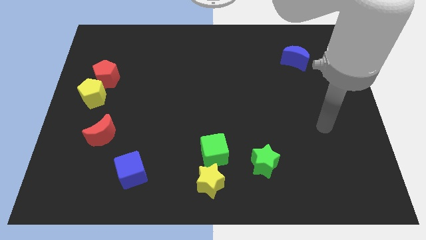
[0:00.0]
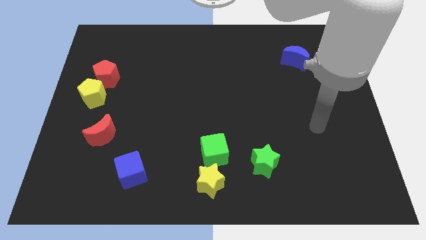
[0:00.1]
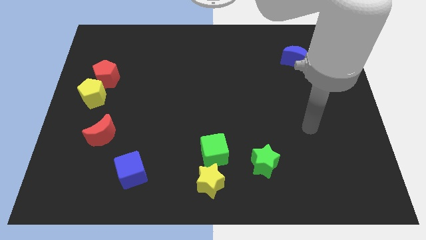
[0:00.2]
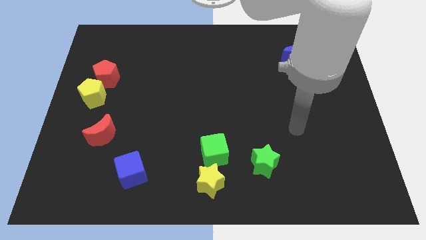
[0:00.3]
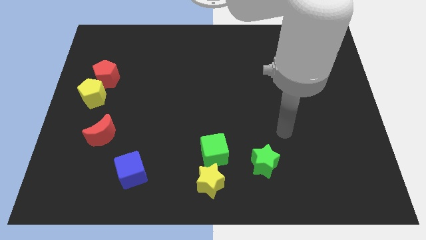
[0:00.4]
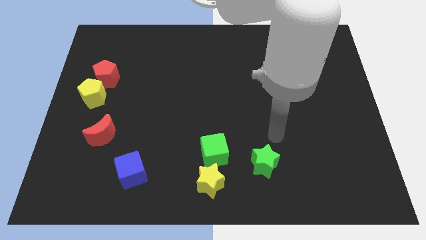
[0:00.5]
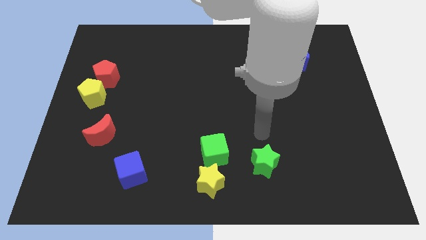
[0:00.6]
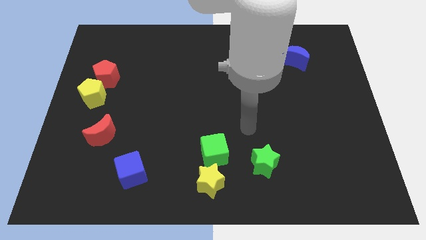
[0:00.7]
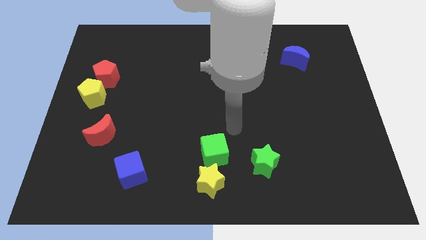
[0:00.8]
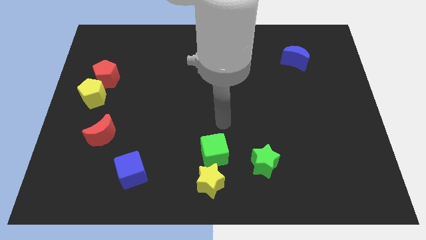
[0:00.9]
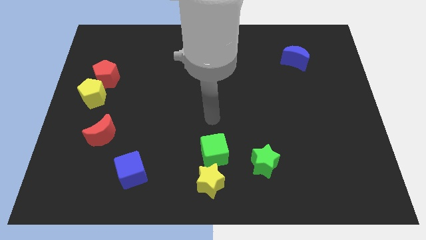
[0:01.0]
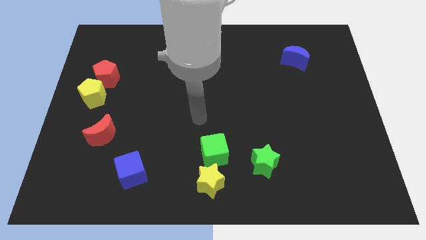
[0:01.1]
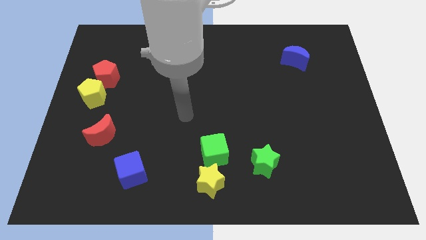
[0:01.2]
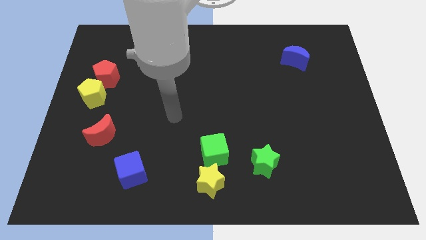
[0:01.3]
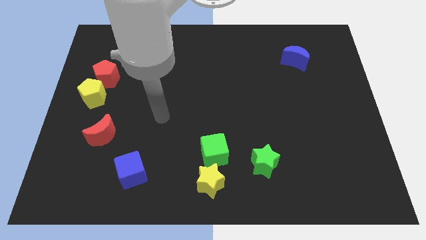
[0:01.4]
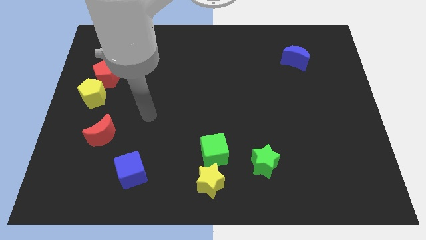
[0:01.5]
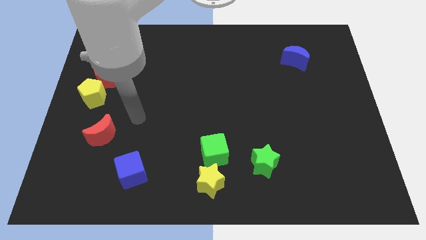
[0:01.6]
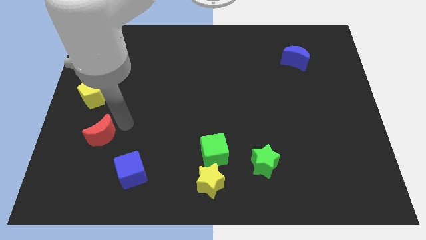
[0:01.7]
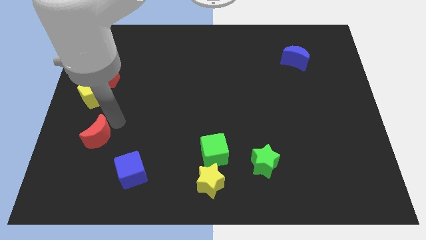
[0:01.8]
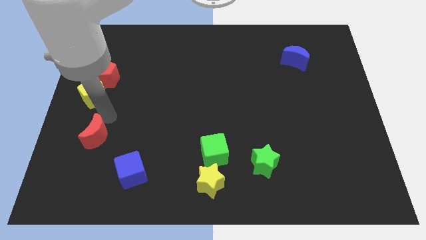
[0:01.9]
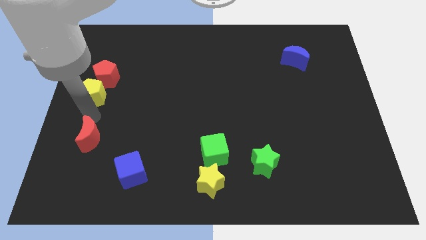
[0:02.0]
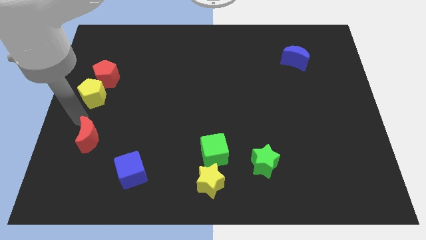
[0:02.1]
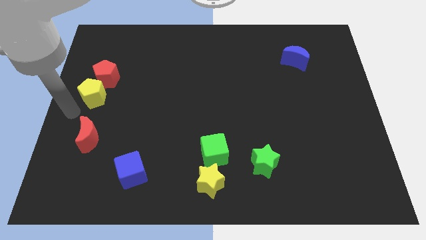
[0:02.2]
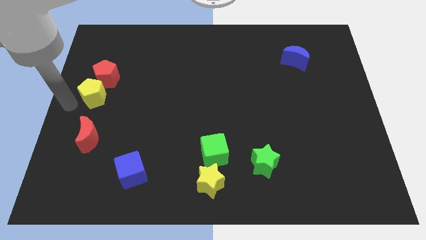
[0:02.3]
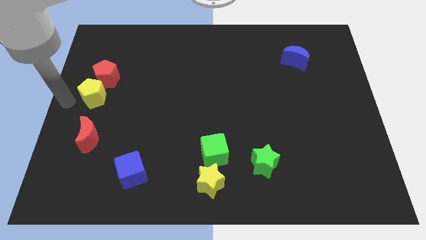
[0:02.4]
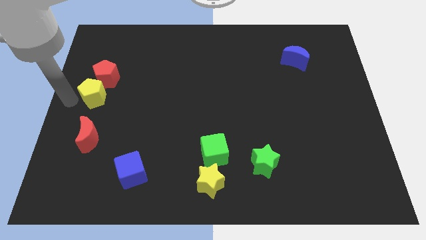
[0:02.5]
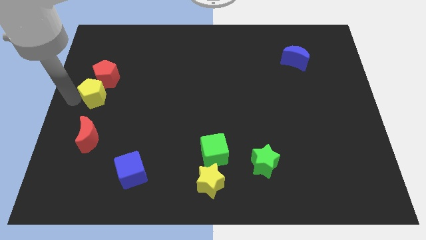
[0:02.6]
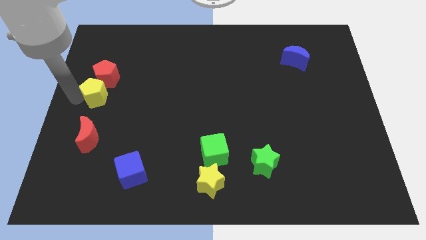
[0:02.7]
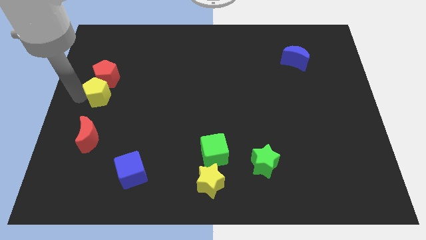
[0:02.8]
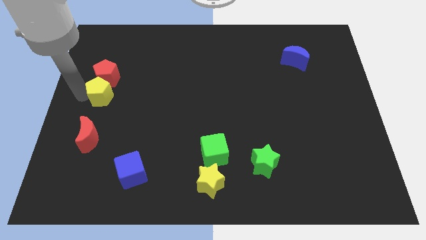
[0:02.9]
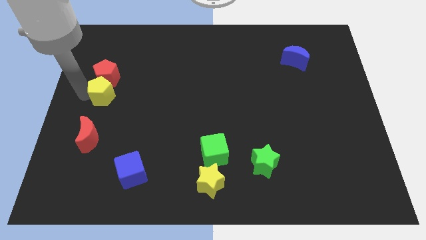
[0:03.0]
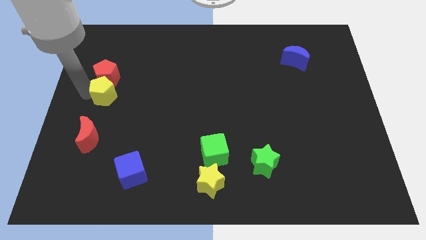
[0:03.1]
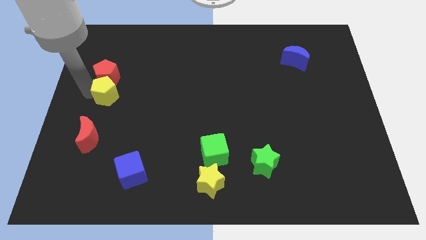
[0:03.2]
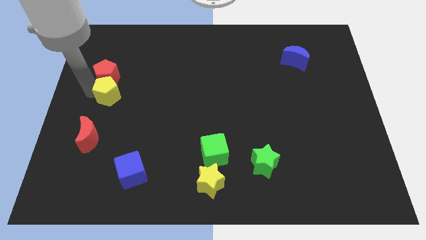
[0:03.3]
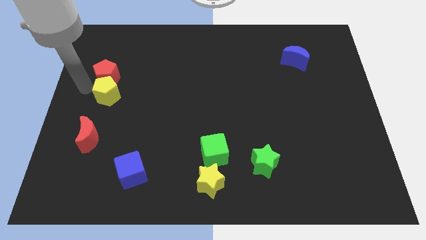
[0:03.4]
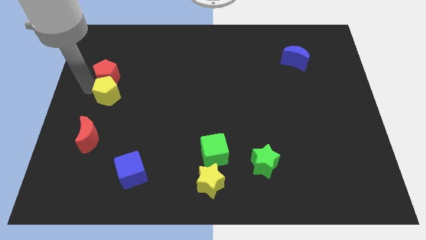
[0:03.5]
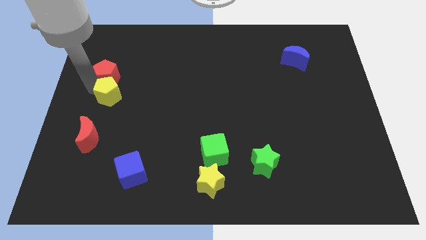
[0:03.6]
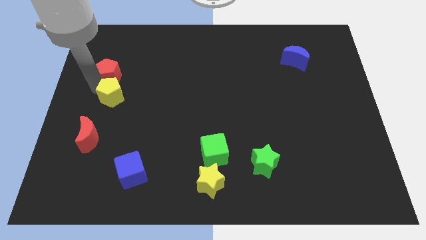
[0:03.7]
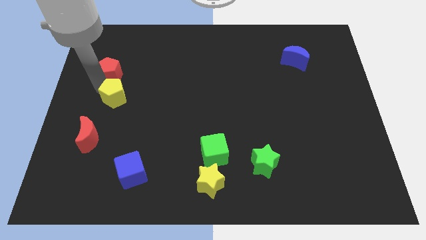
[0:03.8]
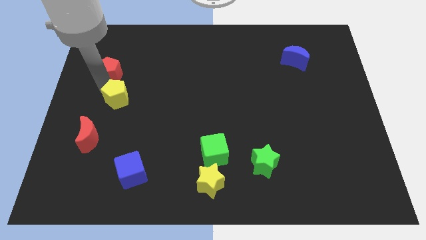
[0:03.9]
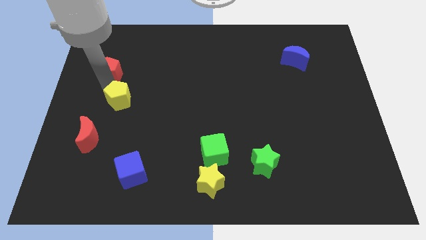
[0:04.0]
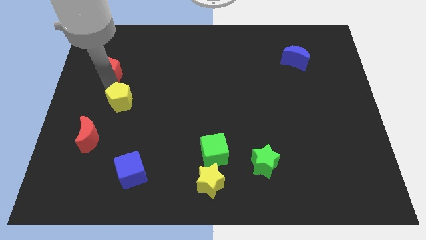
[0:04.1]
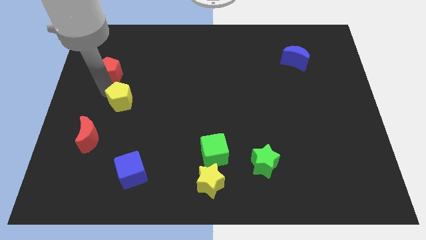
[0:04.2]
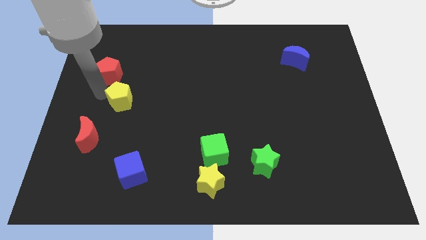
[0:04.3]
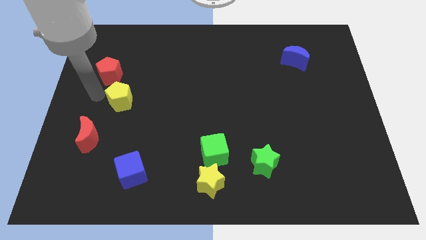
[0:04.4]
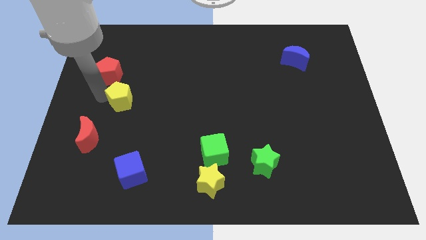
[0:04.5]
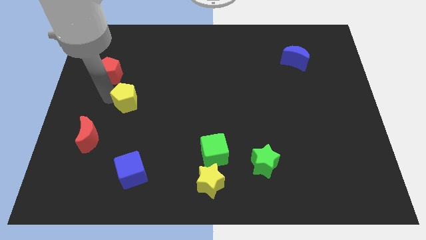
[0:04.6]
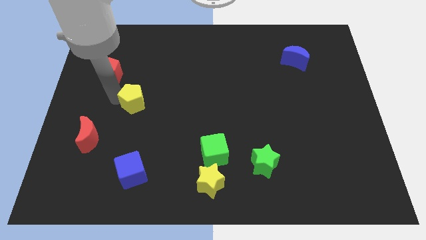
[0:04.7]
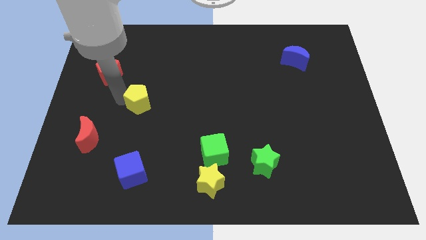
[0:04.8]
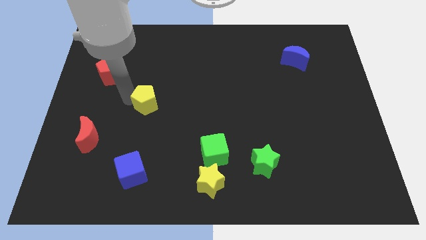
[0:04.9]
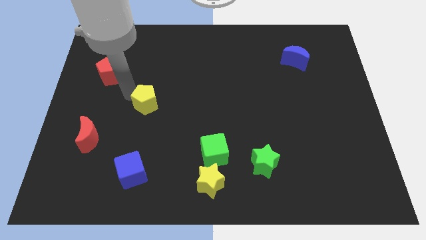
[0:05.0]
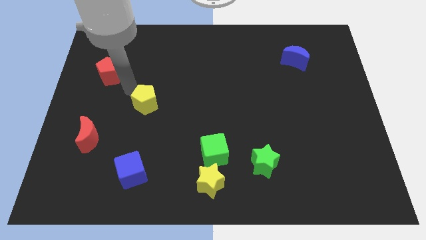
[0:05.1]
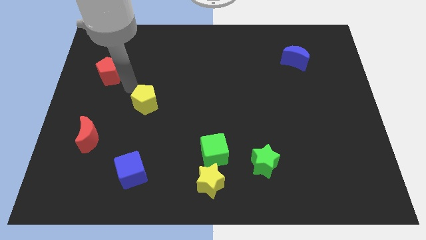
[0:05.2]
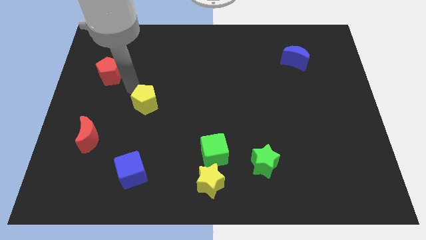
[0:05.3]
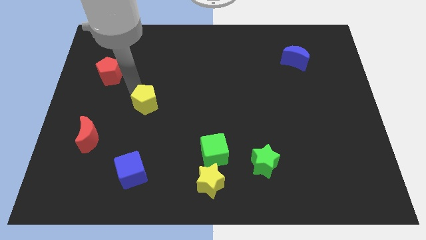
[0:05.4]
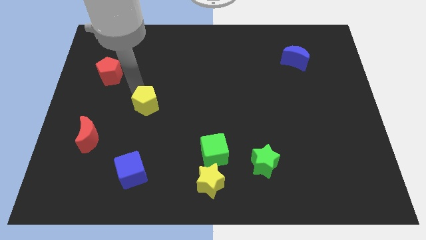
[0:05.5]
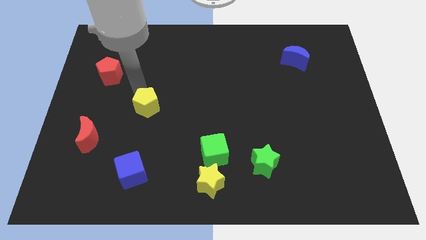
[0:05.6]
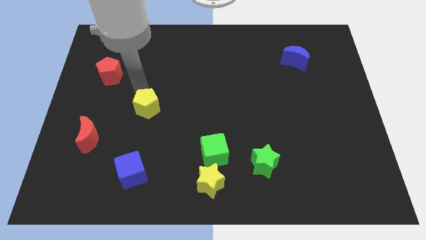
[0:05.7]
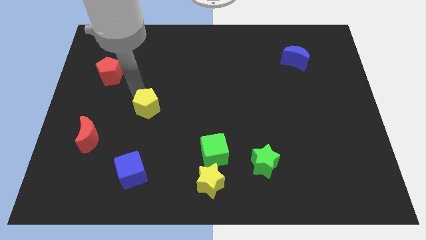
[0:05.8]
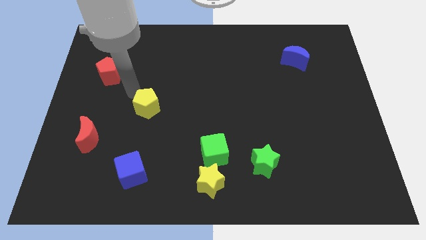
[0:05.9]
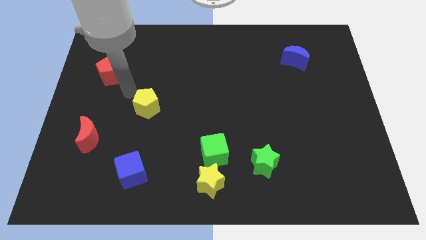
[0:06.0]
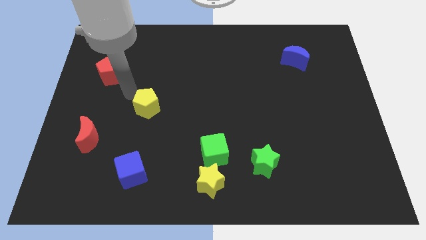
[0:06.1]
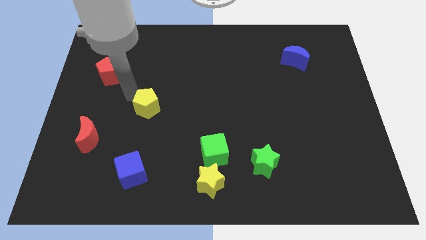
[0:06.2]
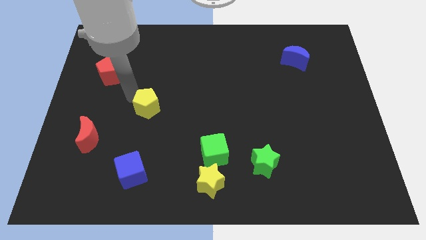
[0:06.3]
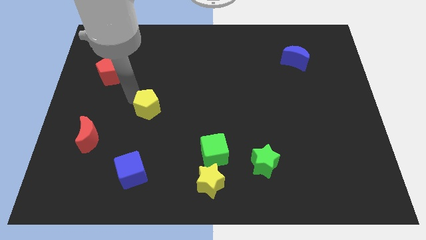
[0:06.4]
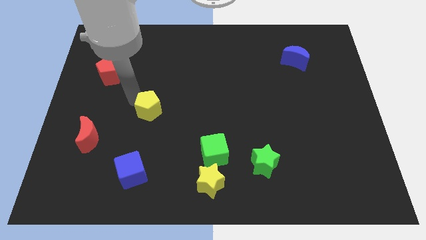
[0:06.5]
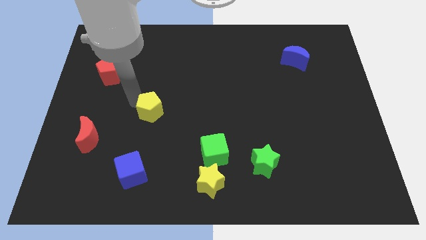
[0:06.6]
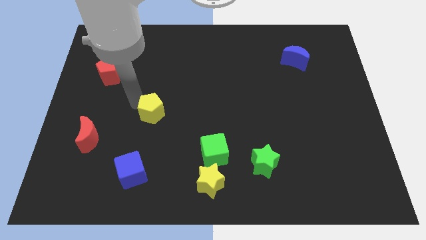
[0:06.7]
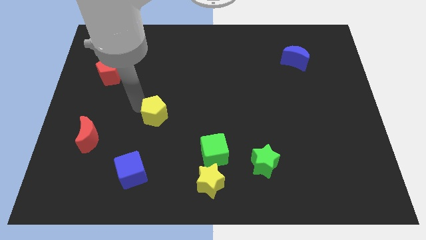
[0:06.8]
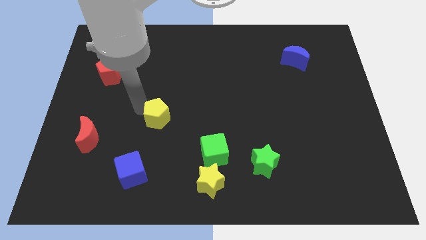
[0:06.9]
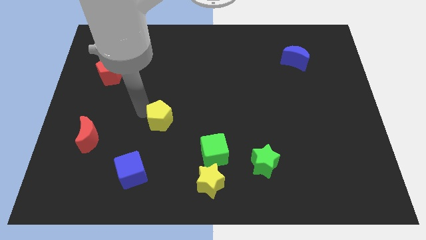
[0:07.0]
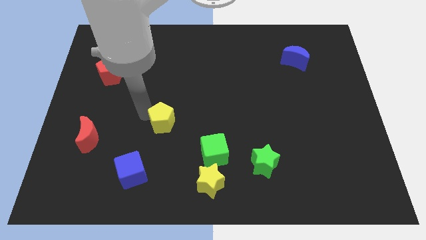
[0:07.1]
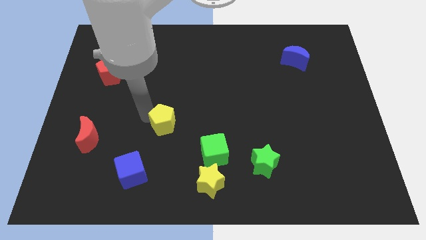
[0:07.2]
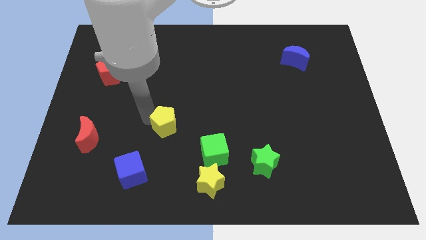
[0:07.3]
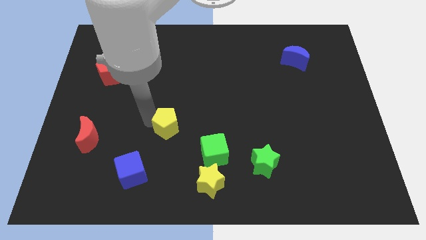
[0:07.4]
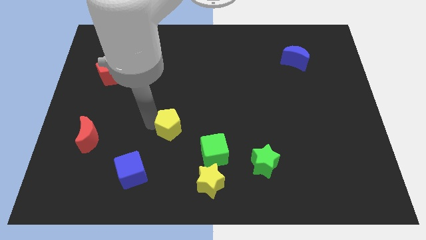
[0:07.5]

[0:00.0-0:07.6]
move the yellow pentagon to the top left side of the green cube
